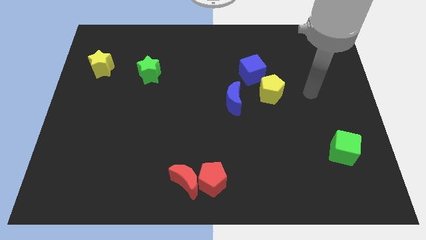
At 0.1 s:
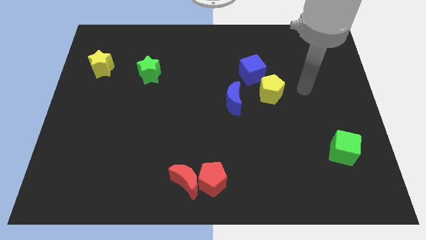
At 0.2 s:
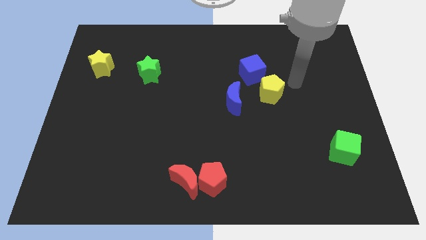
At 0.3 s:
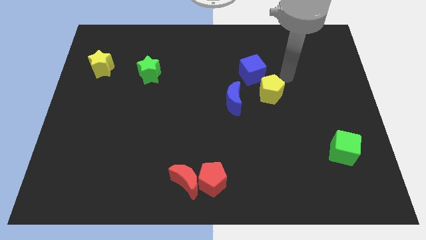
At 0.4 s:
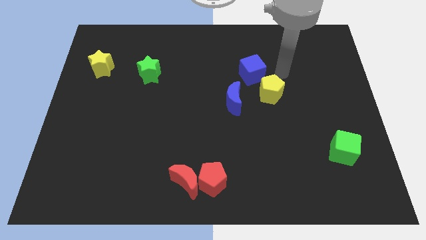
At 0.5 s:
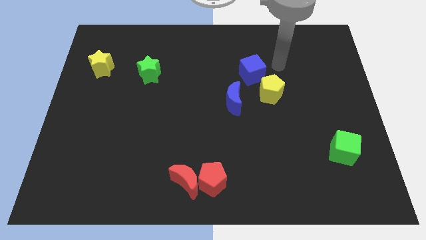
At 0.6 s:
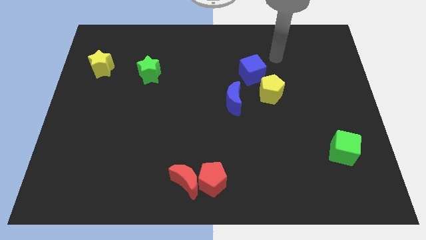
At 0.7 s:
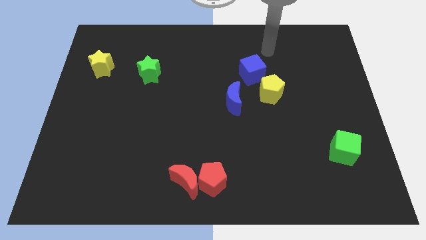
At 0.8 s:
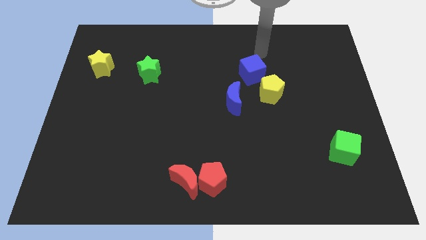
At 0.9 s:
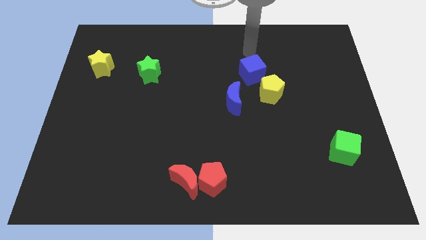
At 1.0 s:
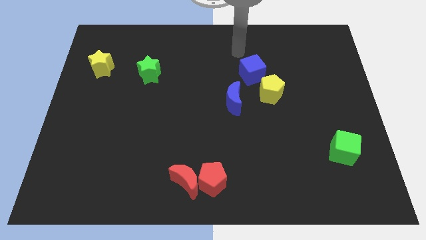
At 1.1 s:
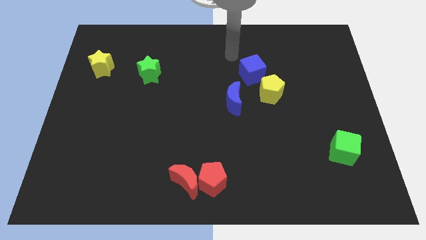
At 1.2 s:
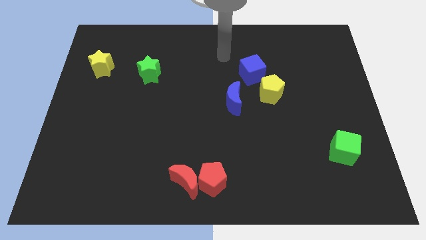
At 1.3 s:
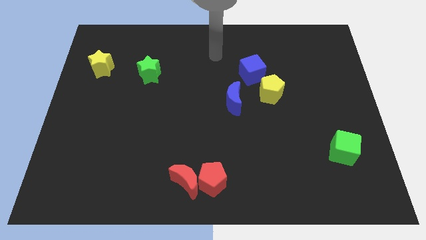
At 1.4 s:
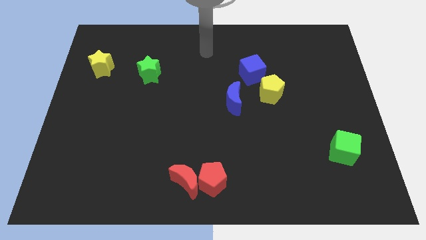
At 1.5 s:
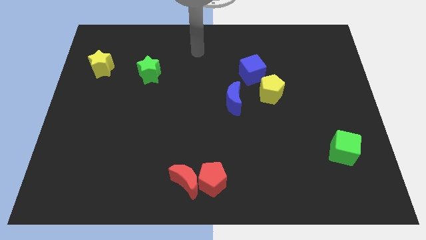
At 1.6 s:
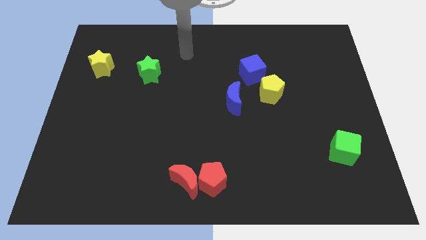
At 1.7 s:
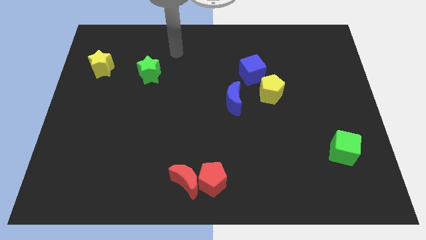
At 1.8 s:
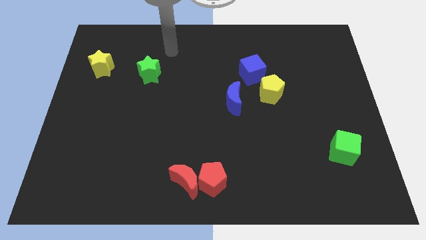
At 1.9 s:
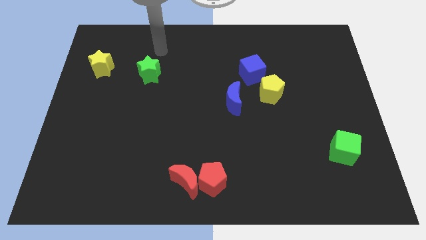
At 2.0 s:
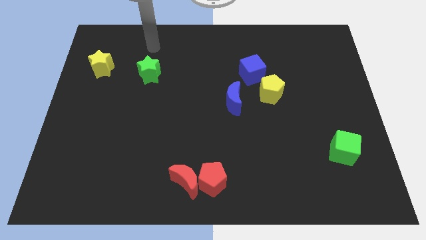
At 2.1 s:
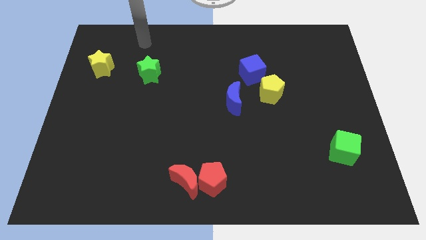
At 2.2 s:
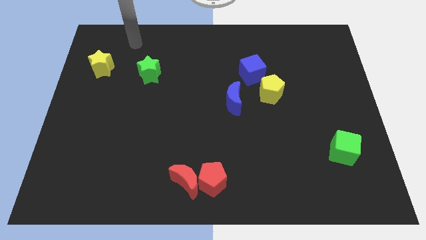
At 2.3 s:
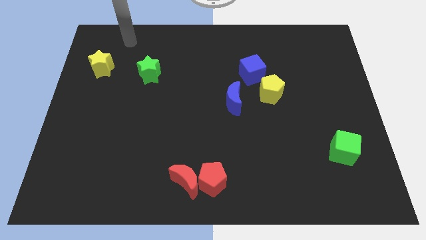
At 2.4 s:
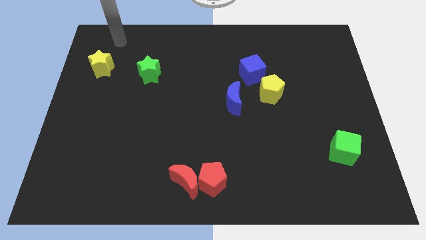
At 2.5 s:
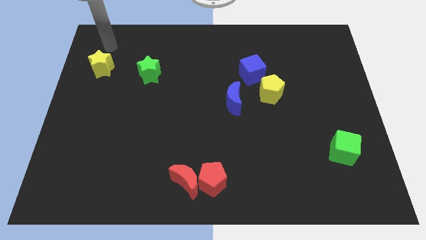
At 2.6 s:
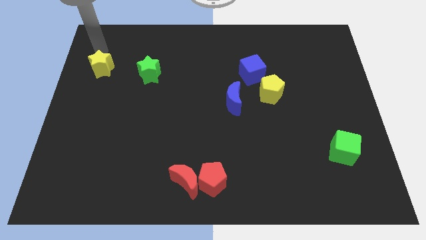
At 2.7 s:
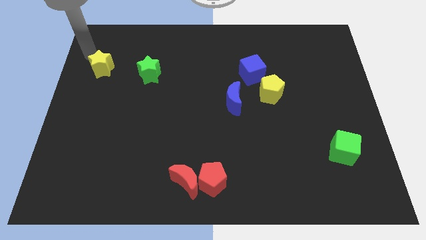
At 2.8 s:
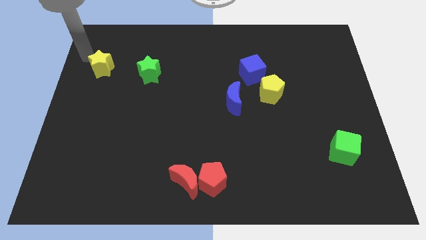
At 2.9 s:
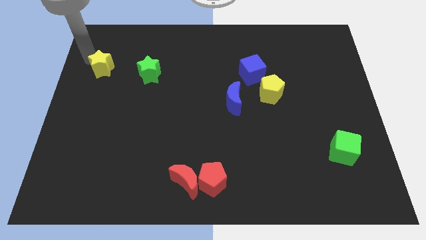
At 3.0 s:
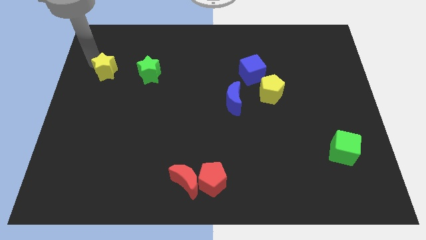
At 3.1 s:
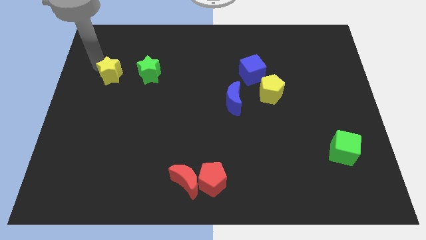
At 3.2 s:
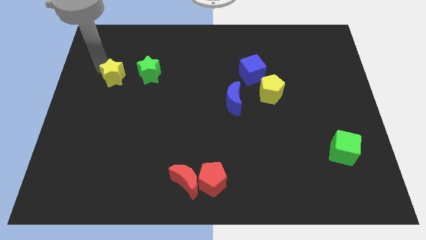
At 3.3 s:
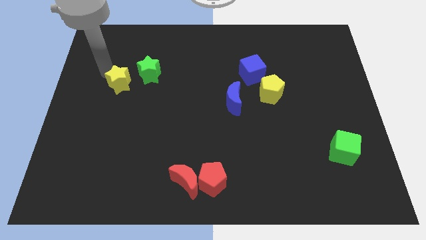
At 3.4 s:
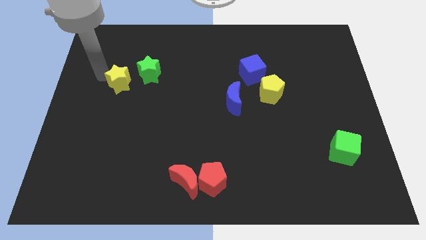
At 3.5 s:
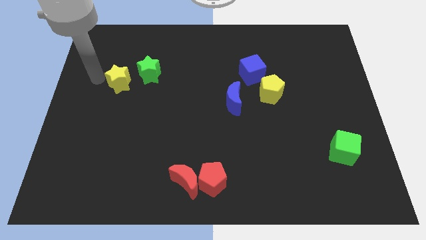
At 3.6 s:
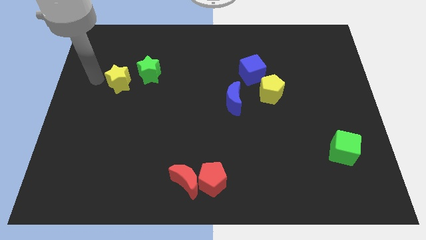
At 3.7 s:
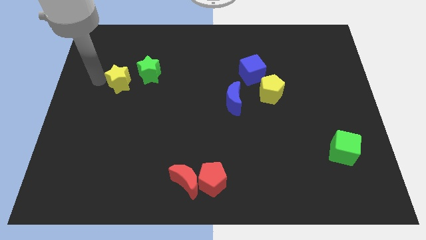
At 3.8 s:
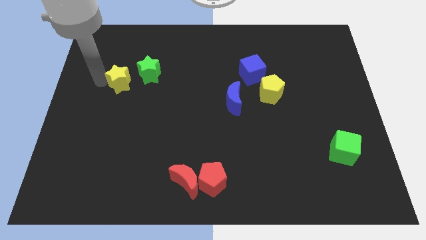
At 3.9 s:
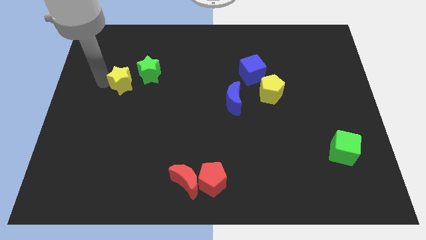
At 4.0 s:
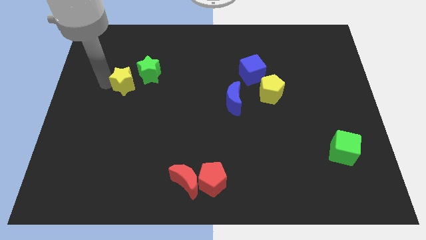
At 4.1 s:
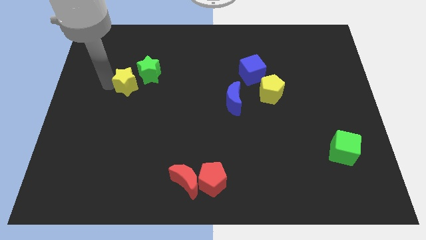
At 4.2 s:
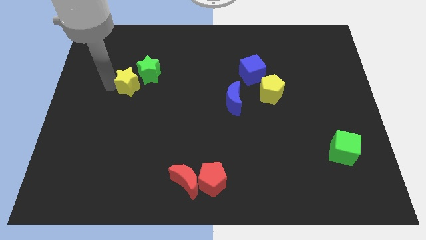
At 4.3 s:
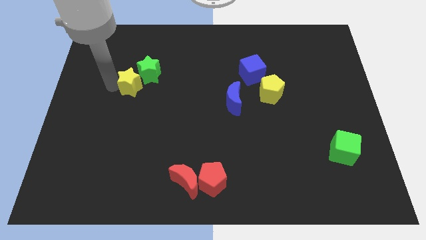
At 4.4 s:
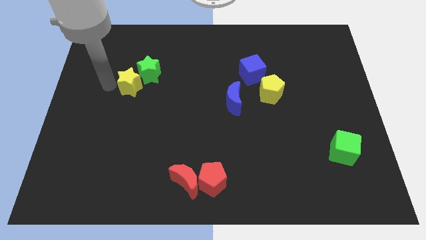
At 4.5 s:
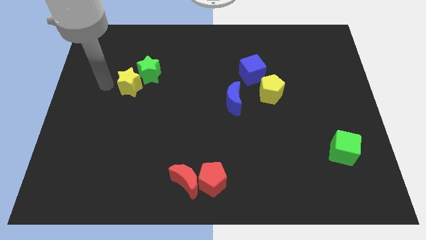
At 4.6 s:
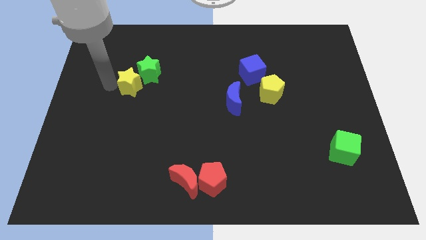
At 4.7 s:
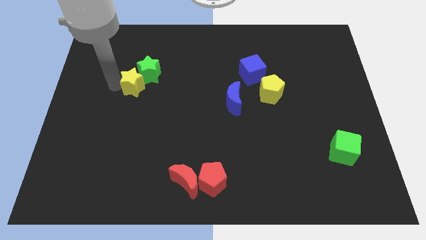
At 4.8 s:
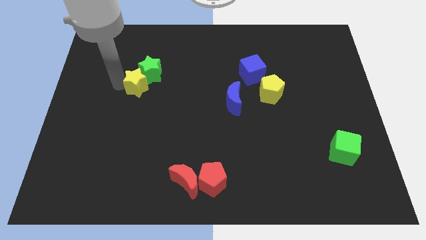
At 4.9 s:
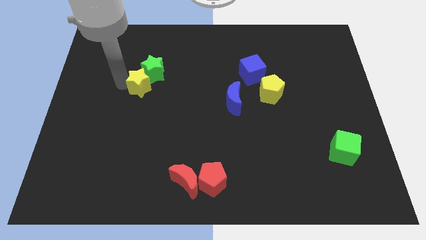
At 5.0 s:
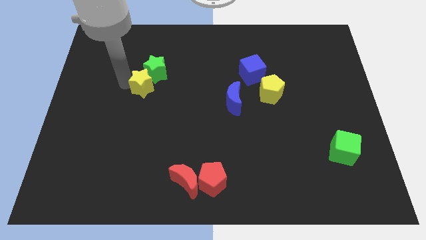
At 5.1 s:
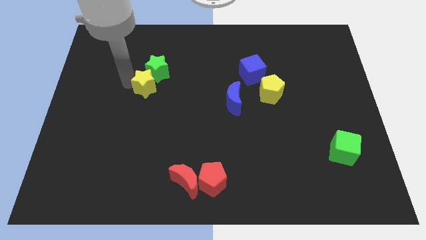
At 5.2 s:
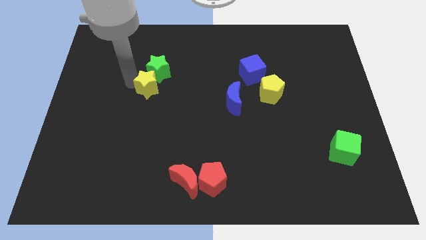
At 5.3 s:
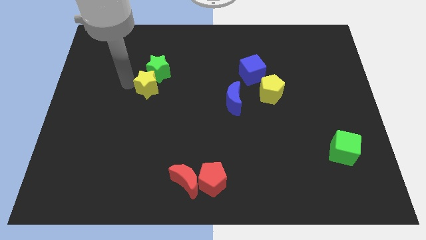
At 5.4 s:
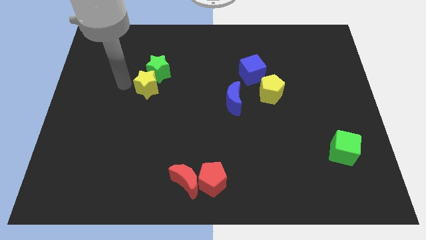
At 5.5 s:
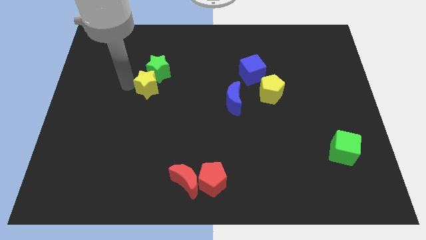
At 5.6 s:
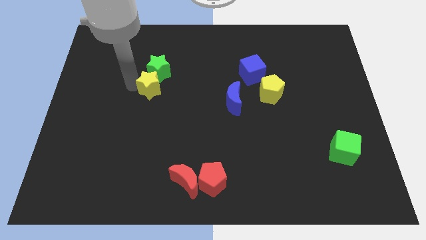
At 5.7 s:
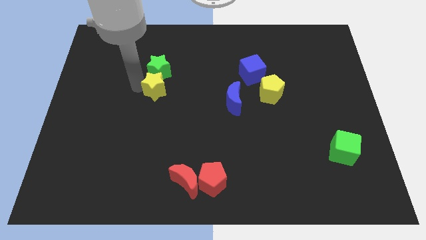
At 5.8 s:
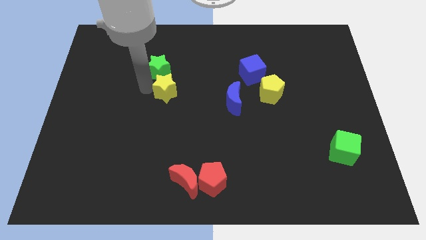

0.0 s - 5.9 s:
move the yellow star to the middle of the board
